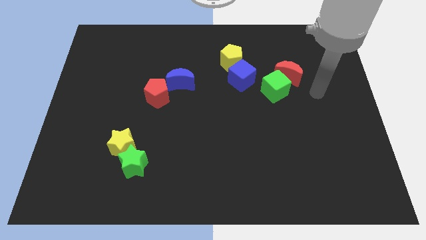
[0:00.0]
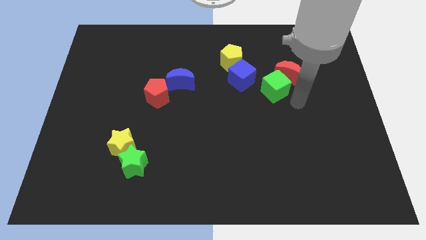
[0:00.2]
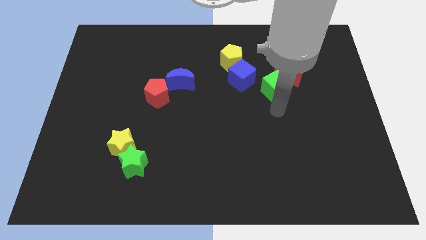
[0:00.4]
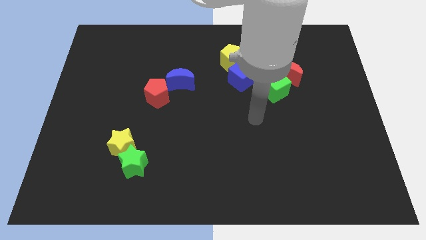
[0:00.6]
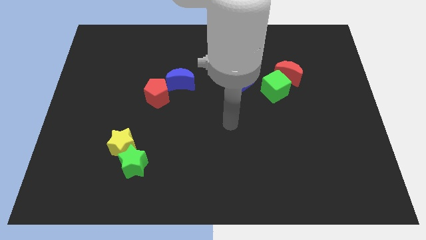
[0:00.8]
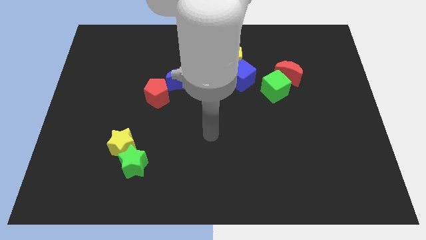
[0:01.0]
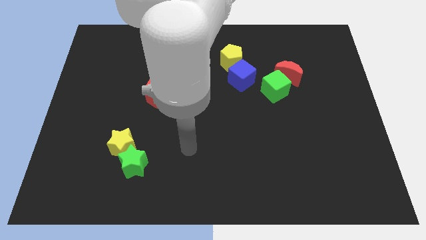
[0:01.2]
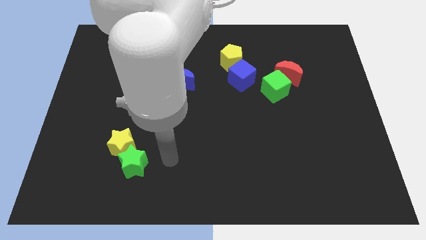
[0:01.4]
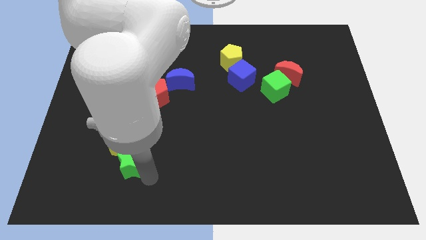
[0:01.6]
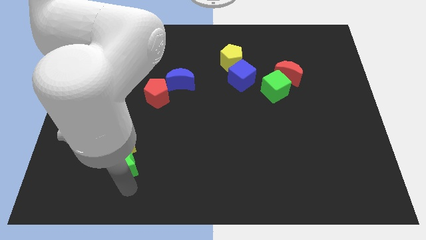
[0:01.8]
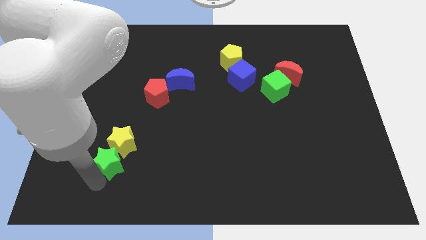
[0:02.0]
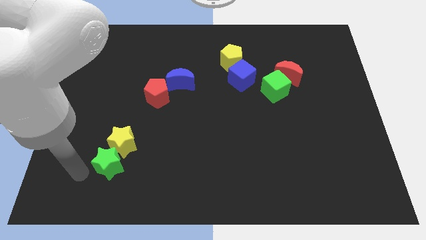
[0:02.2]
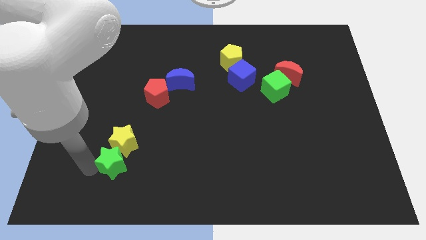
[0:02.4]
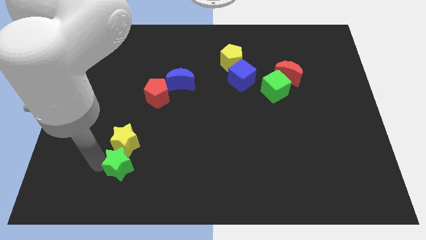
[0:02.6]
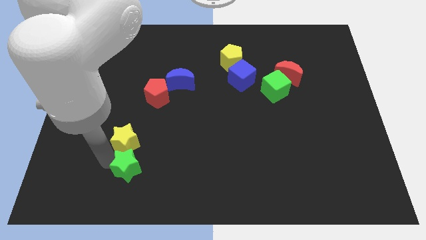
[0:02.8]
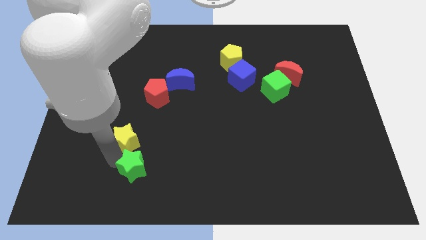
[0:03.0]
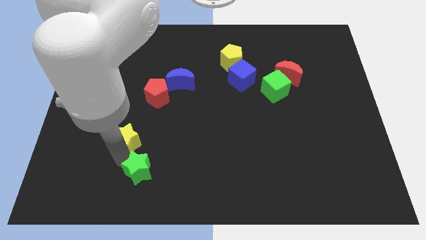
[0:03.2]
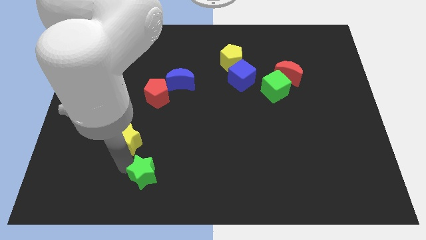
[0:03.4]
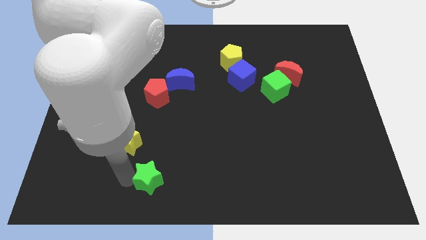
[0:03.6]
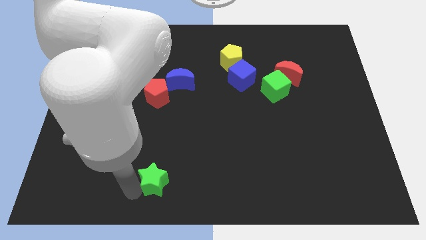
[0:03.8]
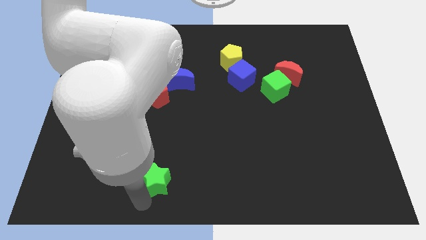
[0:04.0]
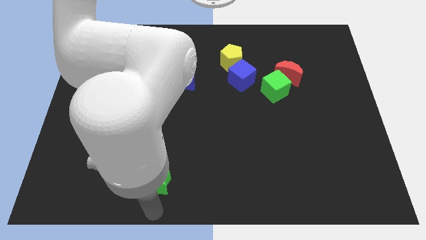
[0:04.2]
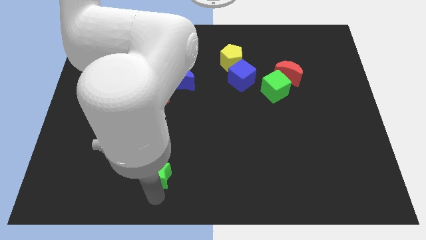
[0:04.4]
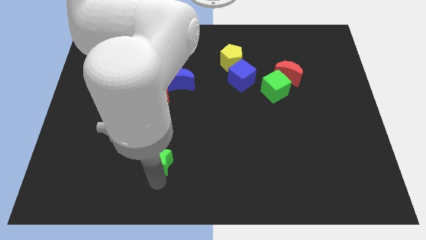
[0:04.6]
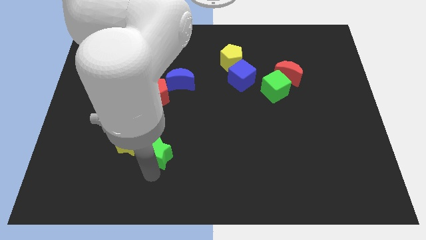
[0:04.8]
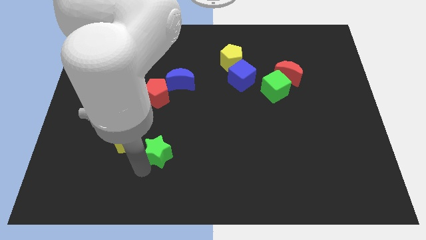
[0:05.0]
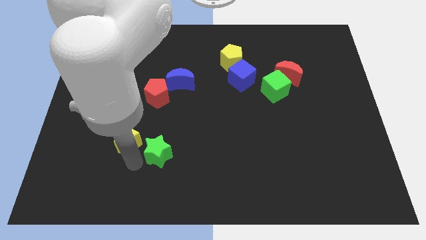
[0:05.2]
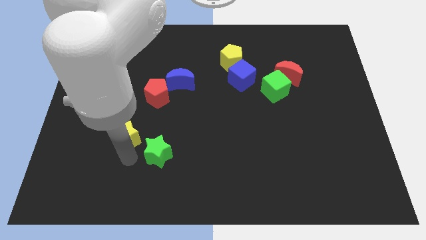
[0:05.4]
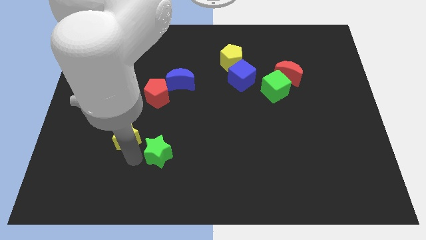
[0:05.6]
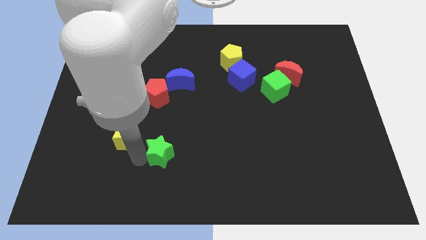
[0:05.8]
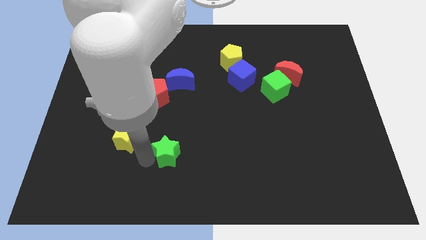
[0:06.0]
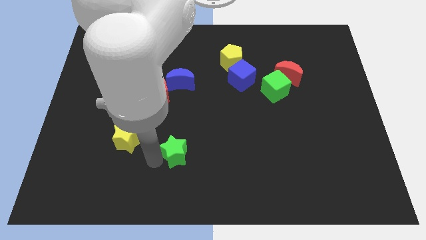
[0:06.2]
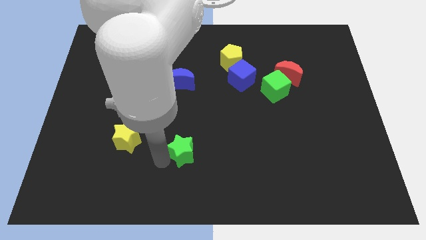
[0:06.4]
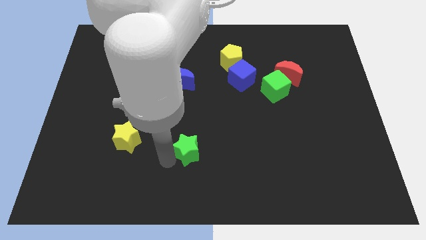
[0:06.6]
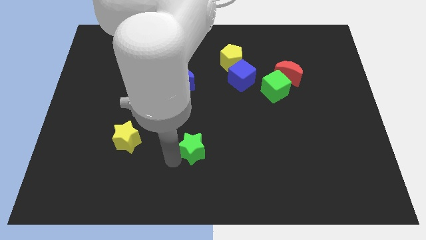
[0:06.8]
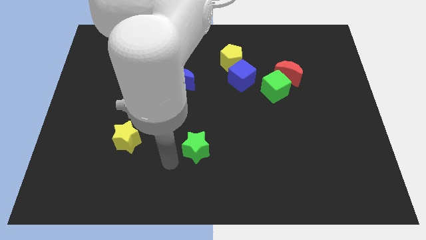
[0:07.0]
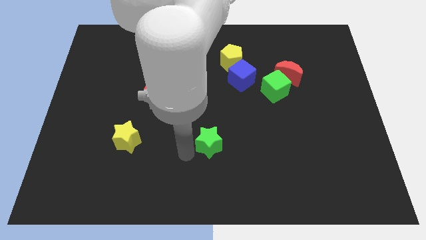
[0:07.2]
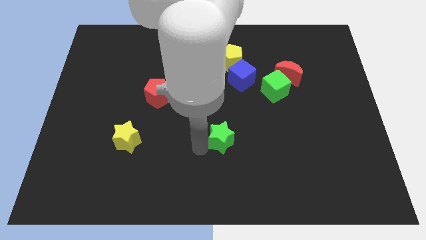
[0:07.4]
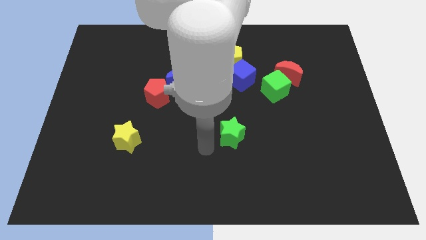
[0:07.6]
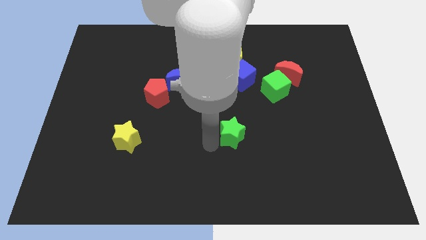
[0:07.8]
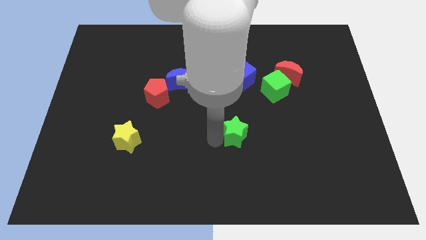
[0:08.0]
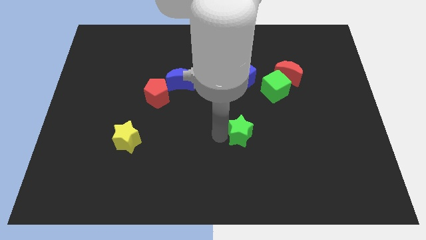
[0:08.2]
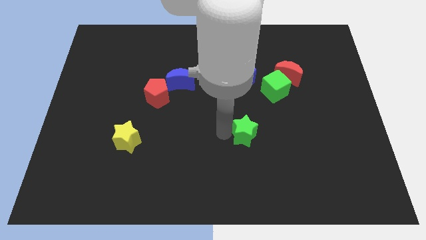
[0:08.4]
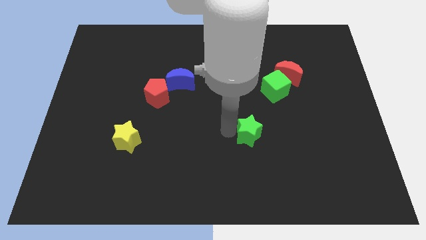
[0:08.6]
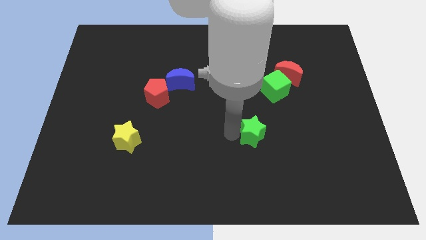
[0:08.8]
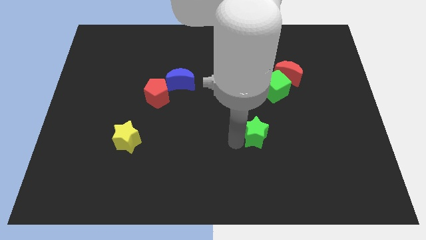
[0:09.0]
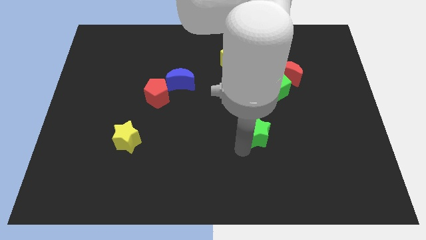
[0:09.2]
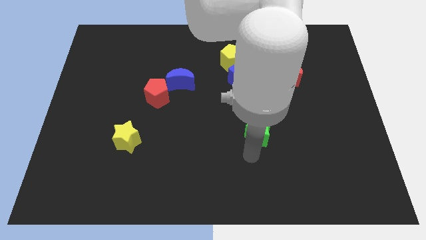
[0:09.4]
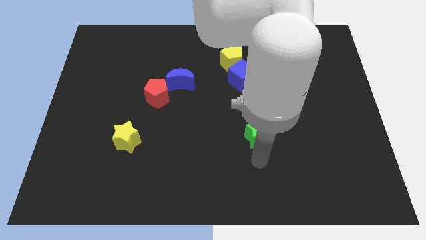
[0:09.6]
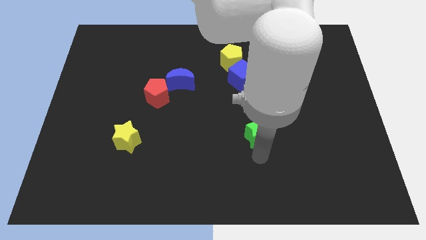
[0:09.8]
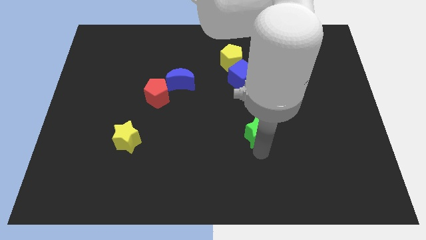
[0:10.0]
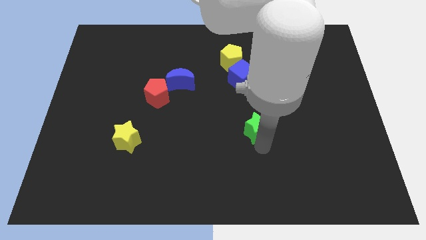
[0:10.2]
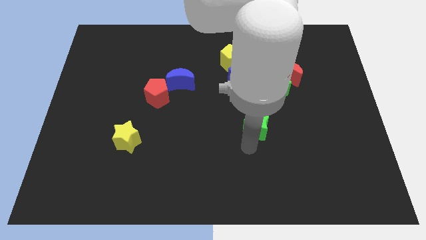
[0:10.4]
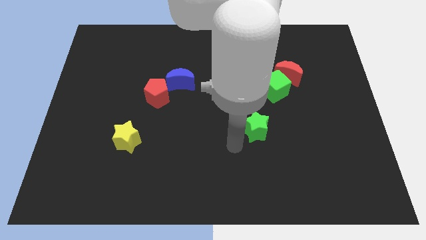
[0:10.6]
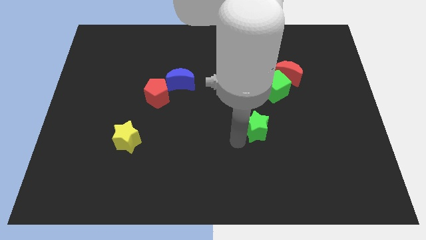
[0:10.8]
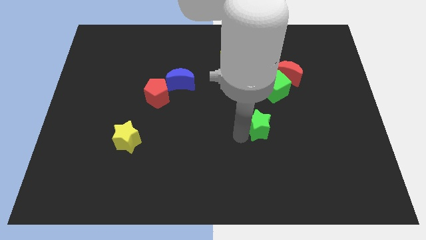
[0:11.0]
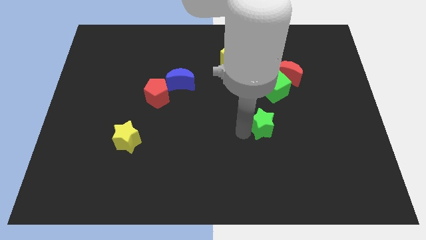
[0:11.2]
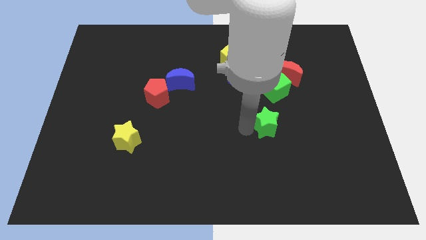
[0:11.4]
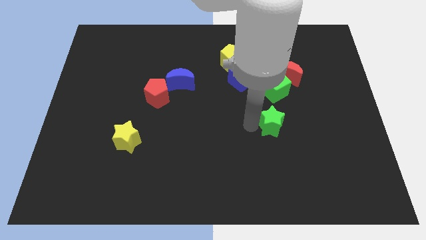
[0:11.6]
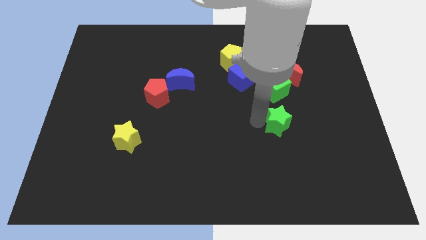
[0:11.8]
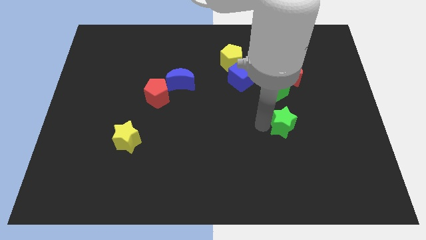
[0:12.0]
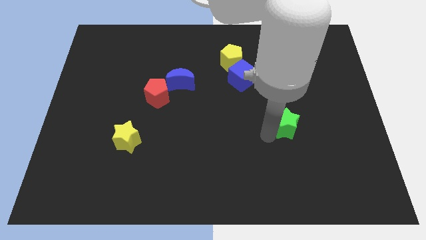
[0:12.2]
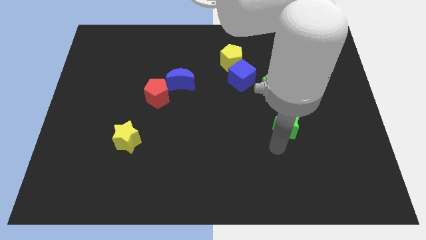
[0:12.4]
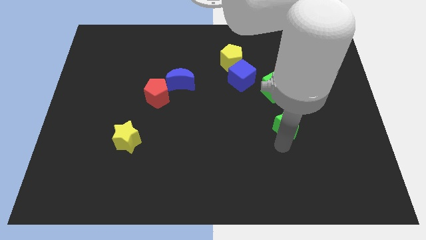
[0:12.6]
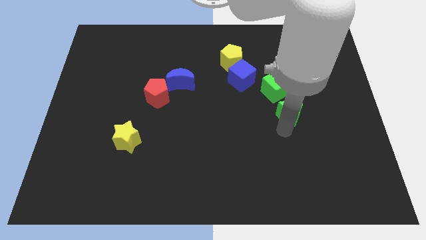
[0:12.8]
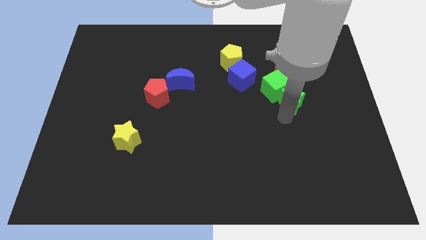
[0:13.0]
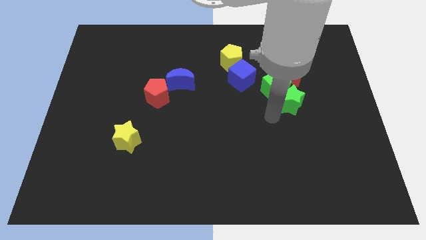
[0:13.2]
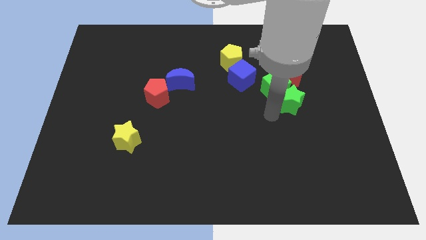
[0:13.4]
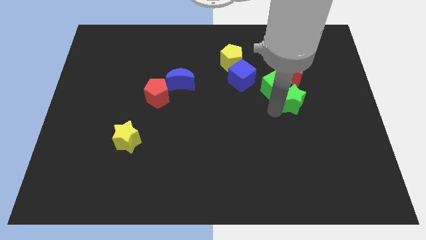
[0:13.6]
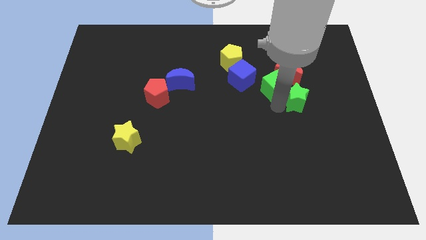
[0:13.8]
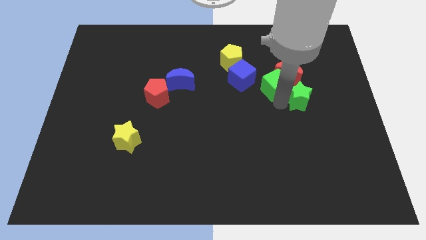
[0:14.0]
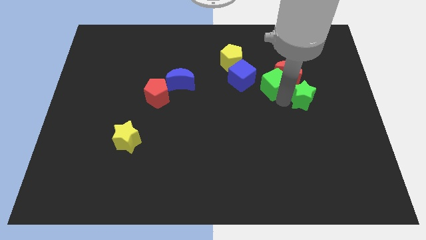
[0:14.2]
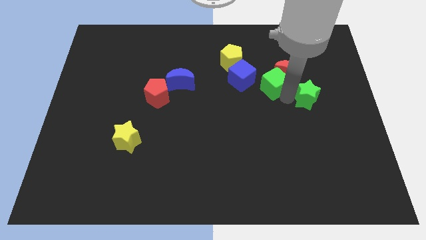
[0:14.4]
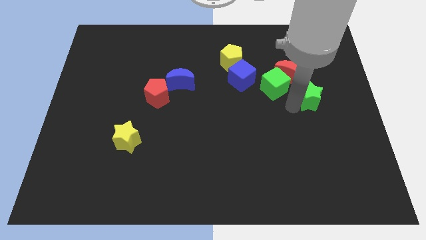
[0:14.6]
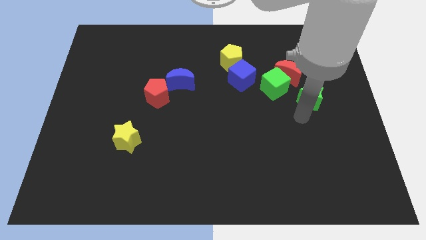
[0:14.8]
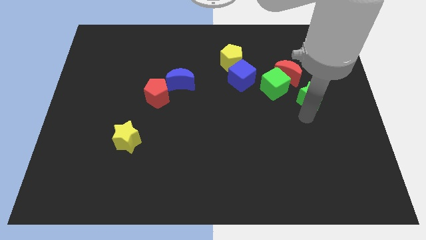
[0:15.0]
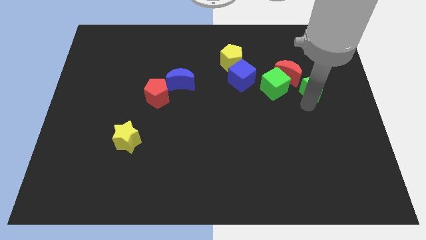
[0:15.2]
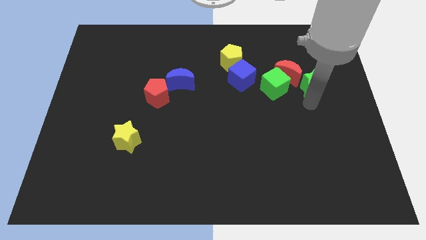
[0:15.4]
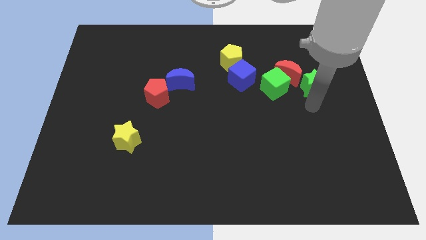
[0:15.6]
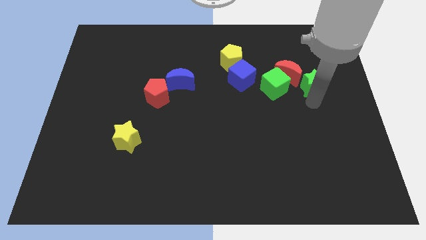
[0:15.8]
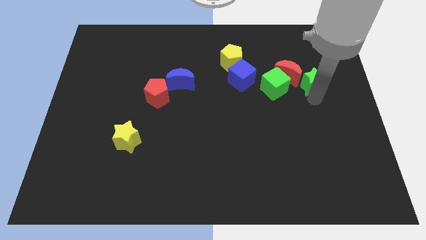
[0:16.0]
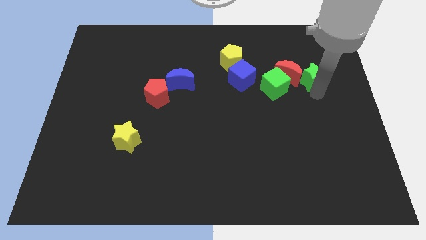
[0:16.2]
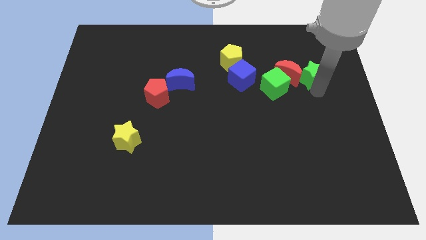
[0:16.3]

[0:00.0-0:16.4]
push the green star to the top right of the red moon
